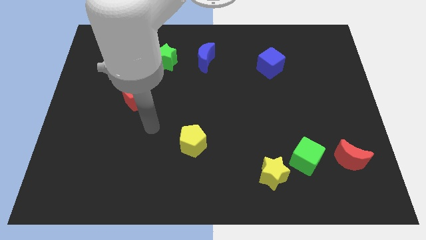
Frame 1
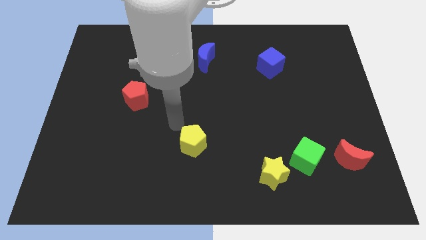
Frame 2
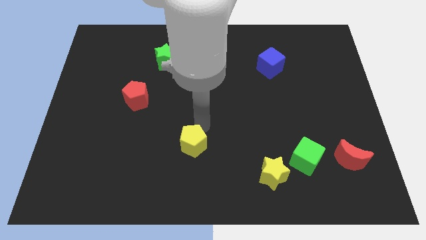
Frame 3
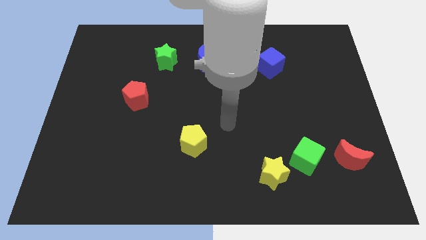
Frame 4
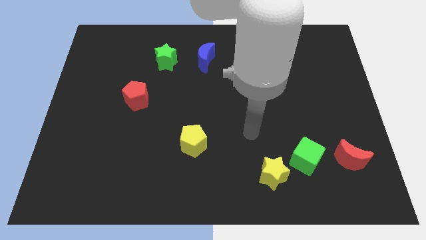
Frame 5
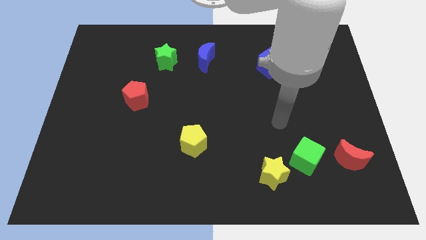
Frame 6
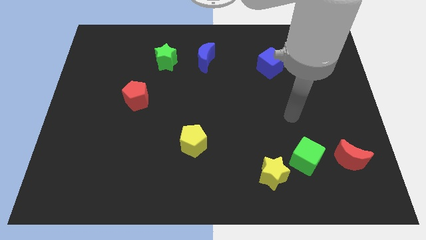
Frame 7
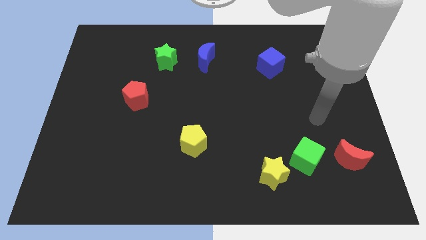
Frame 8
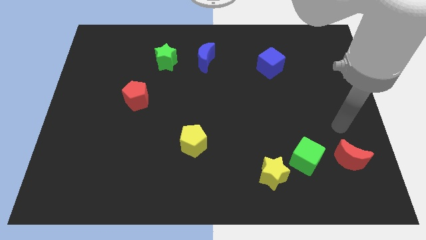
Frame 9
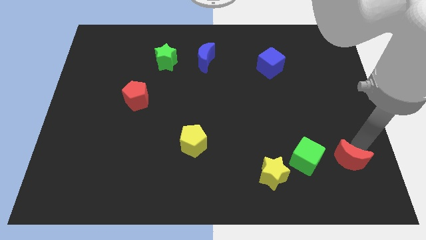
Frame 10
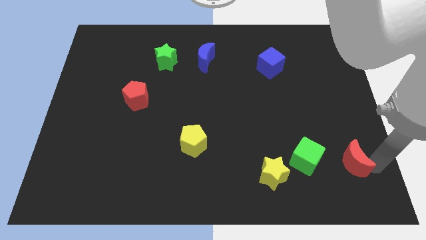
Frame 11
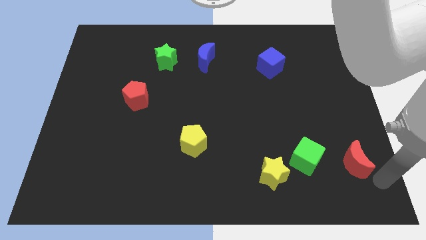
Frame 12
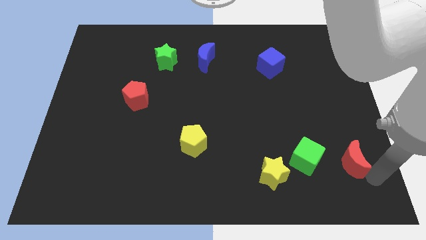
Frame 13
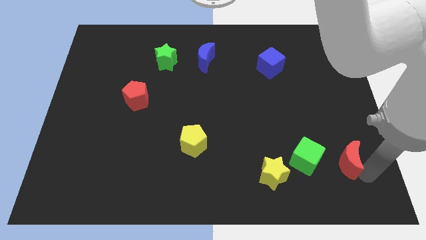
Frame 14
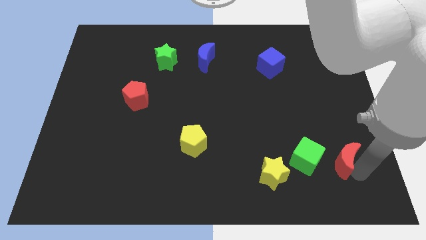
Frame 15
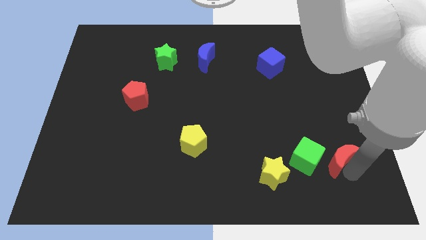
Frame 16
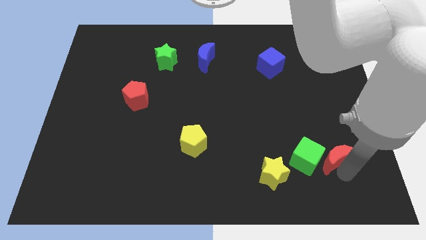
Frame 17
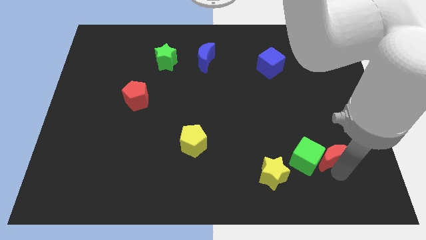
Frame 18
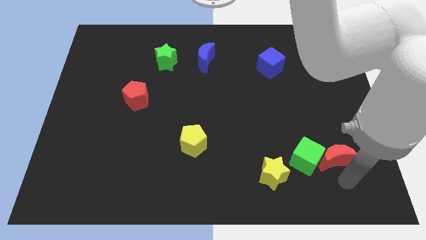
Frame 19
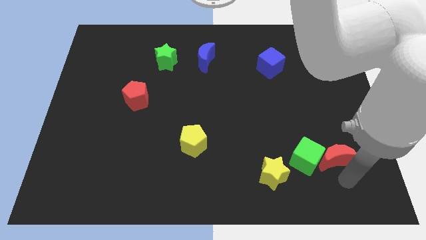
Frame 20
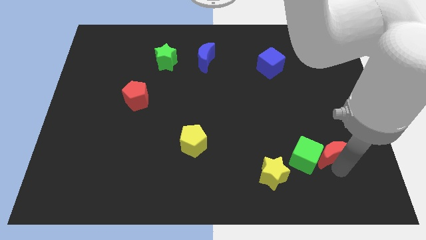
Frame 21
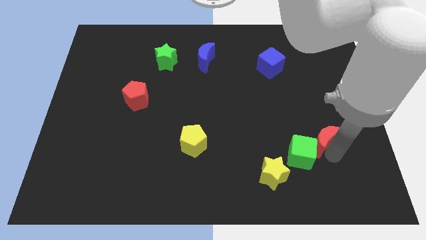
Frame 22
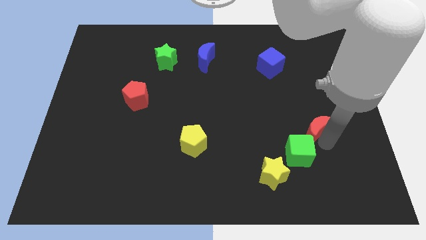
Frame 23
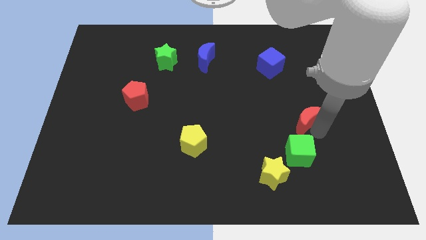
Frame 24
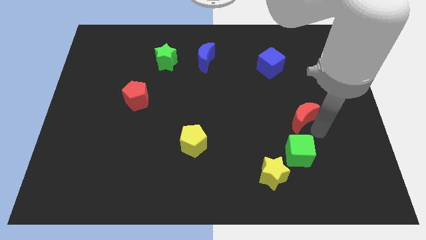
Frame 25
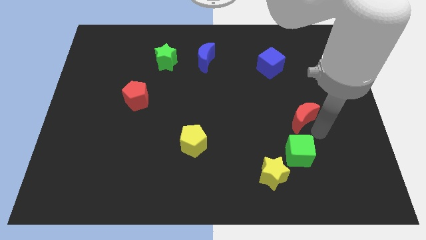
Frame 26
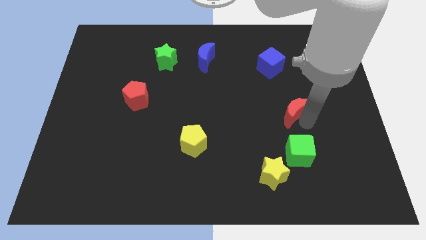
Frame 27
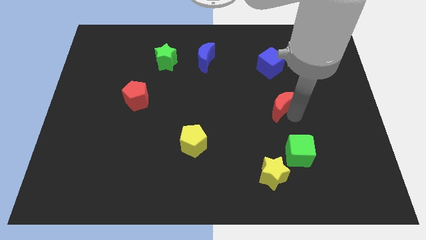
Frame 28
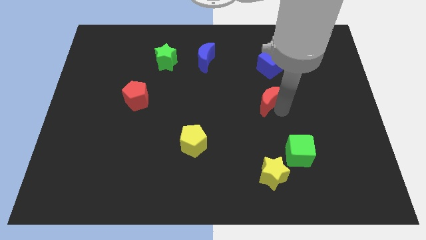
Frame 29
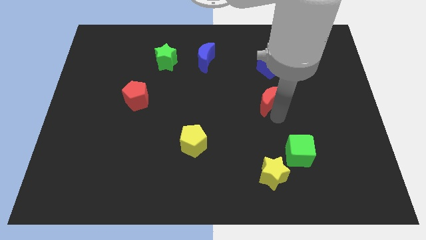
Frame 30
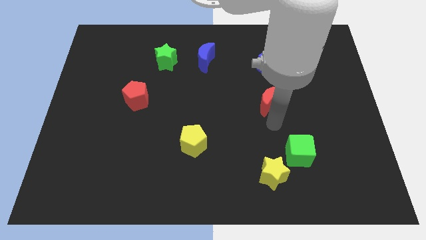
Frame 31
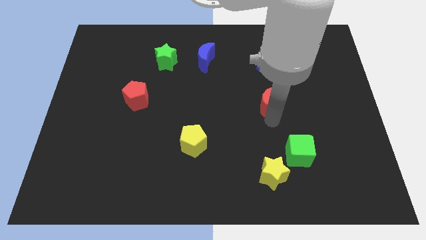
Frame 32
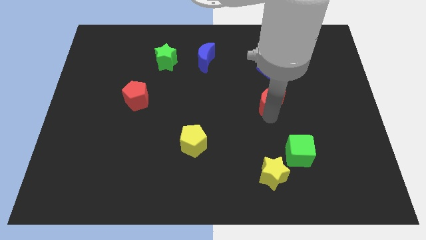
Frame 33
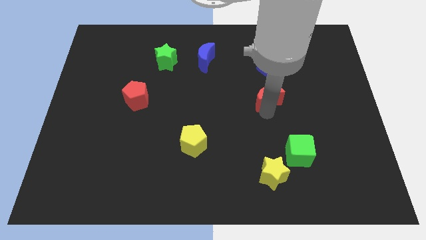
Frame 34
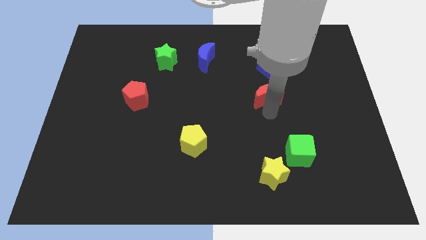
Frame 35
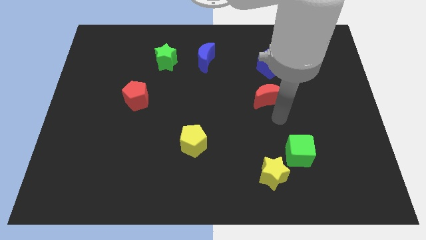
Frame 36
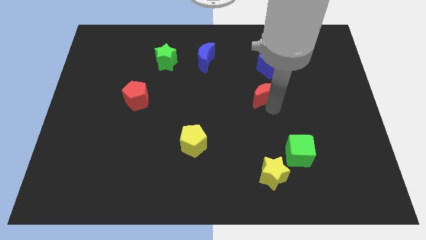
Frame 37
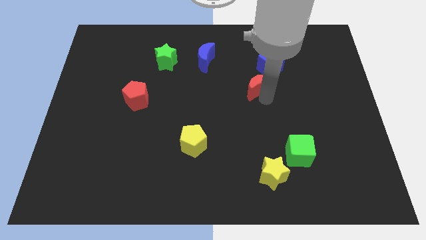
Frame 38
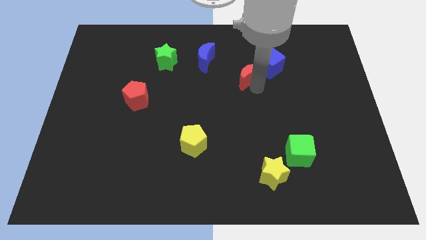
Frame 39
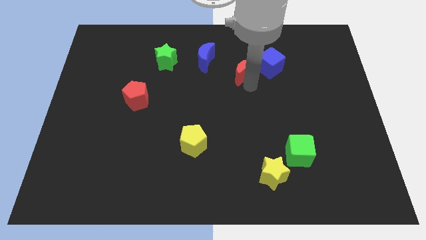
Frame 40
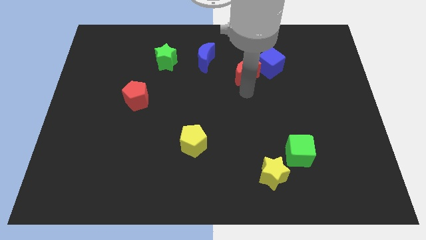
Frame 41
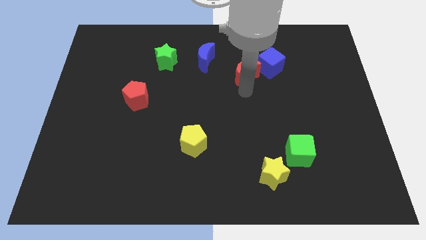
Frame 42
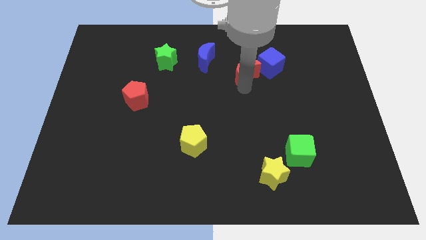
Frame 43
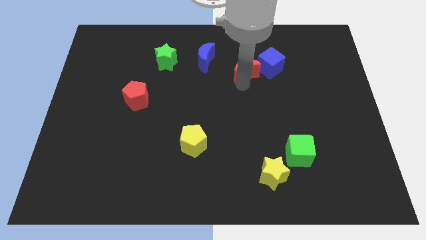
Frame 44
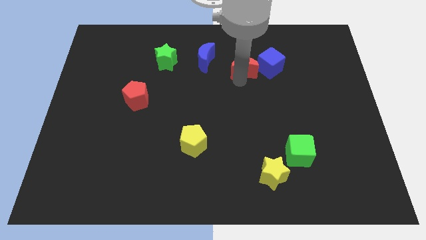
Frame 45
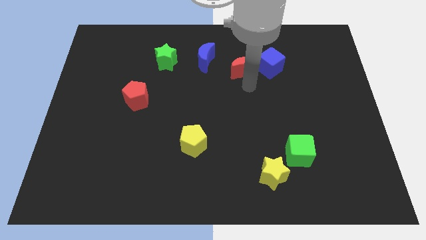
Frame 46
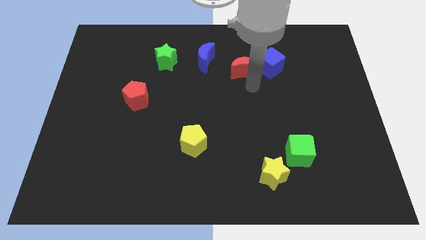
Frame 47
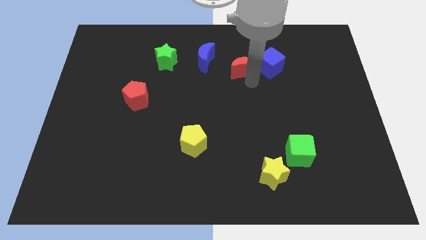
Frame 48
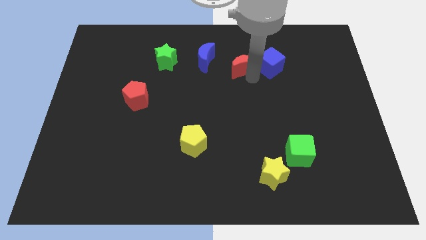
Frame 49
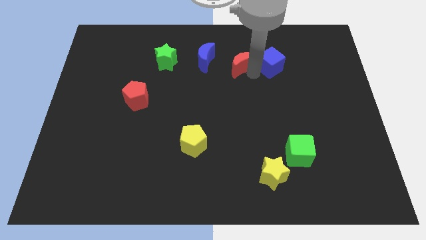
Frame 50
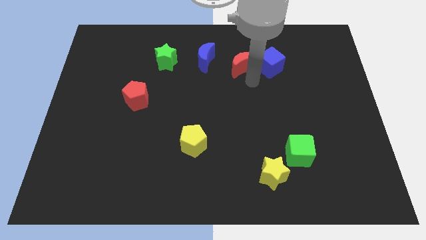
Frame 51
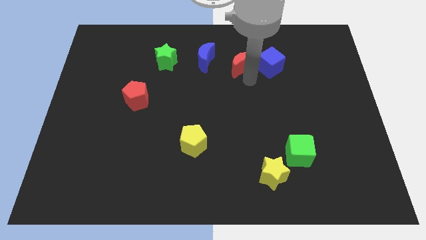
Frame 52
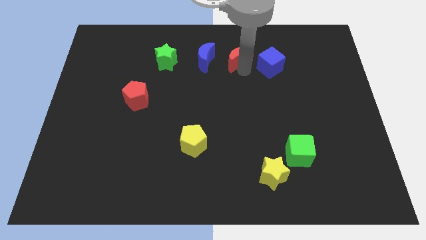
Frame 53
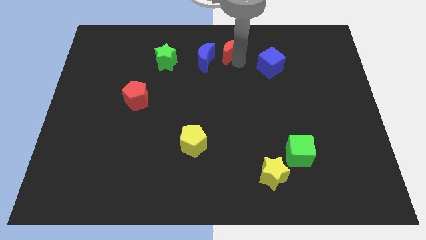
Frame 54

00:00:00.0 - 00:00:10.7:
slide the red moon to the top

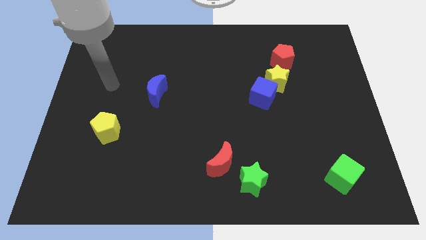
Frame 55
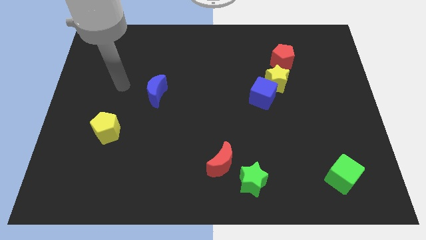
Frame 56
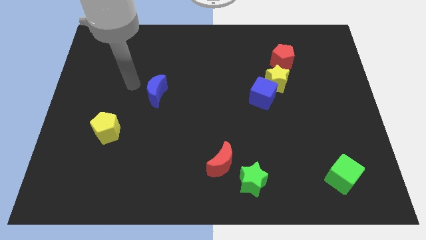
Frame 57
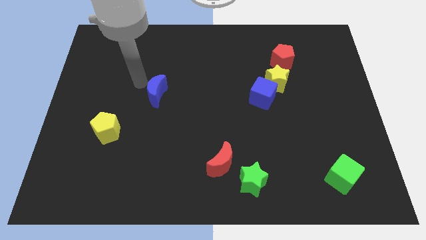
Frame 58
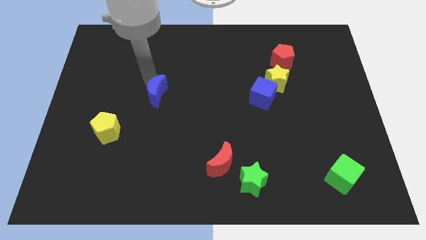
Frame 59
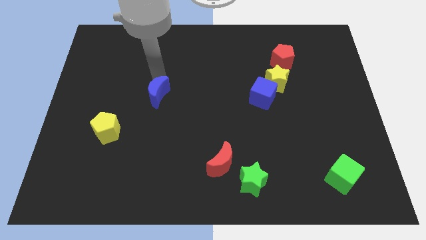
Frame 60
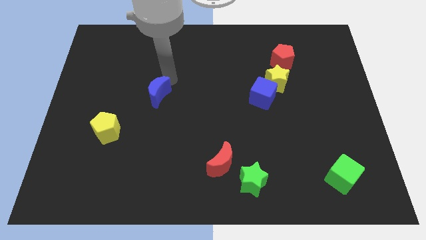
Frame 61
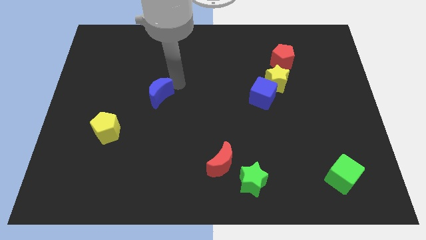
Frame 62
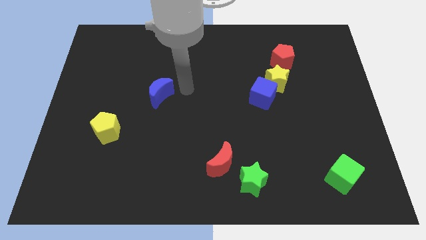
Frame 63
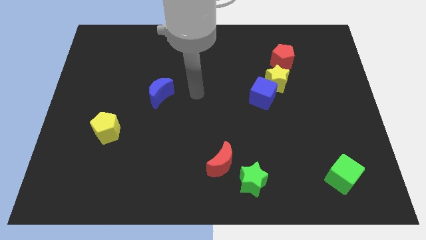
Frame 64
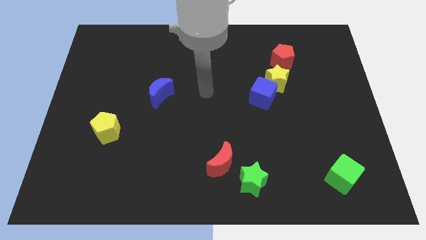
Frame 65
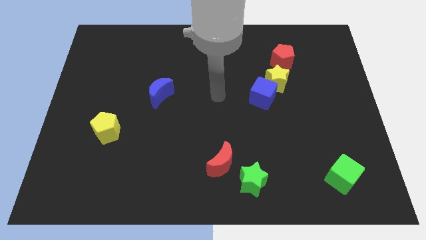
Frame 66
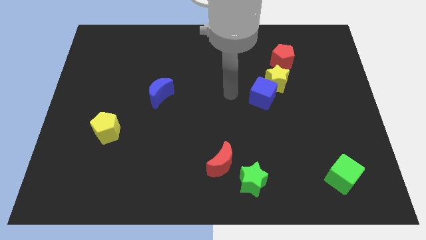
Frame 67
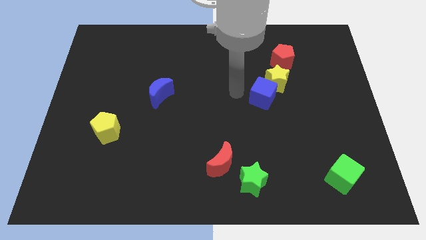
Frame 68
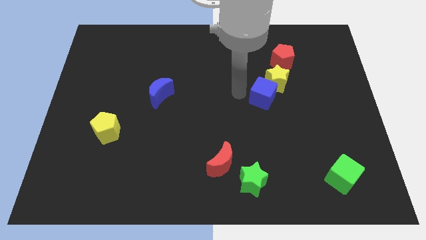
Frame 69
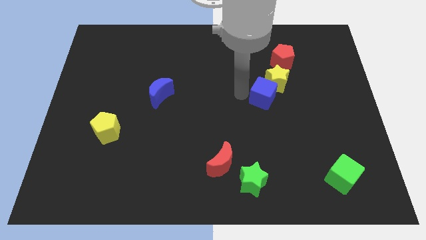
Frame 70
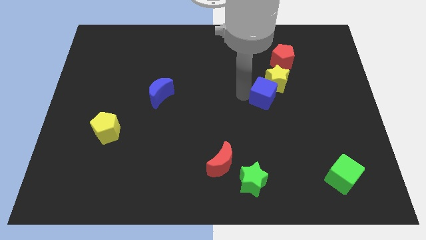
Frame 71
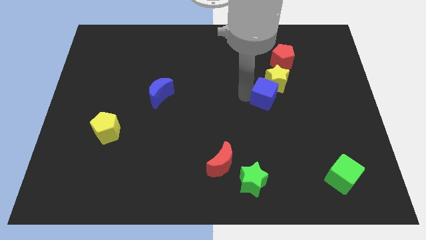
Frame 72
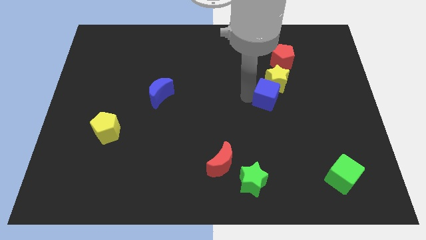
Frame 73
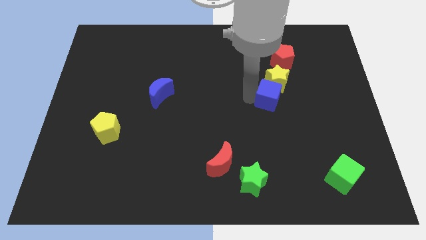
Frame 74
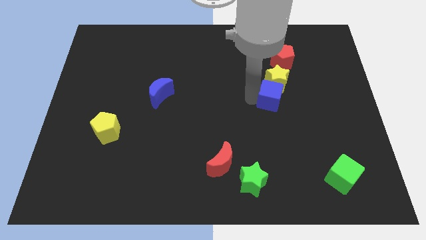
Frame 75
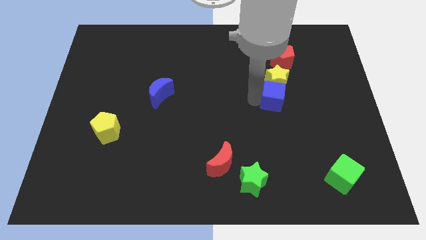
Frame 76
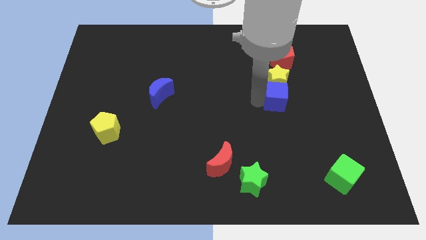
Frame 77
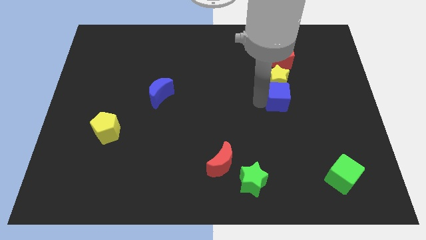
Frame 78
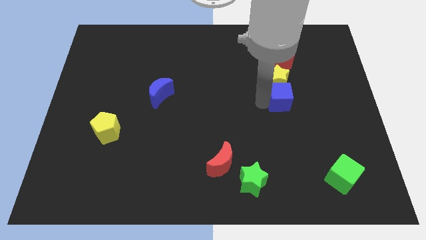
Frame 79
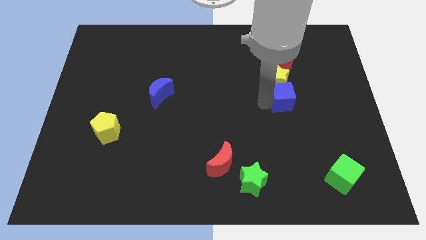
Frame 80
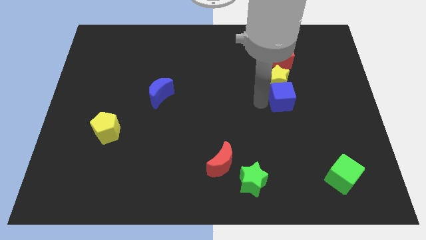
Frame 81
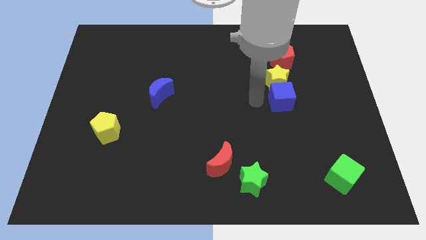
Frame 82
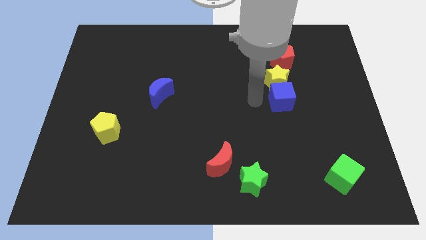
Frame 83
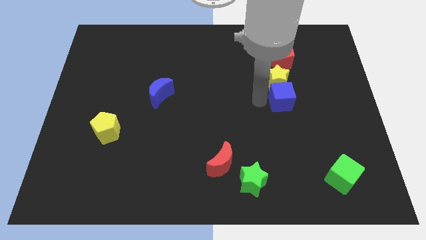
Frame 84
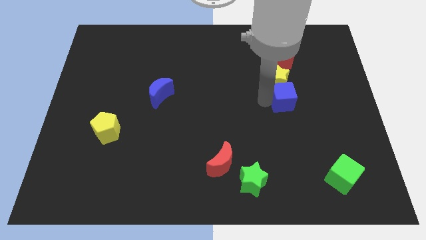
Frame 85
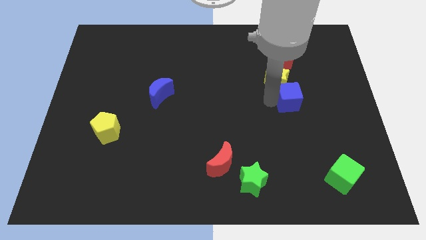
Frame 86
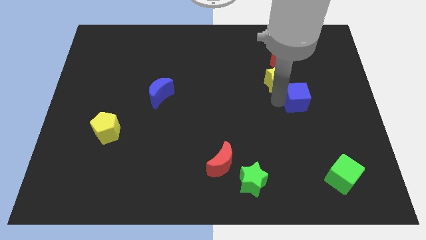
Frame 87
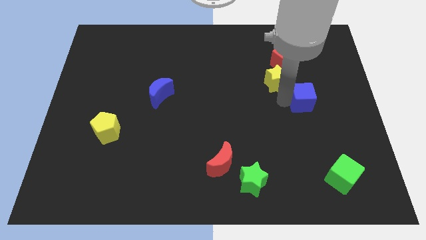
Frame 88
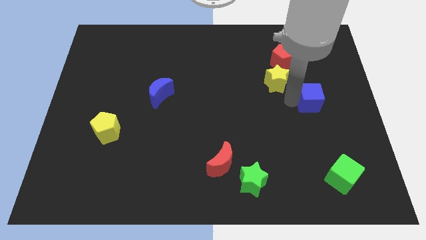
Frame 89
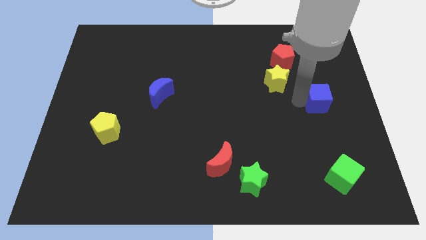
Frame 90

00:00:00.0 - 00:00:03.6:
slide the blue cube to the right side
